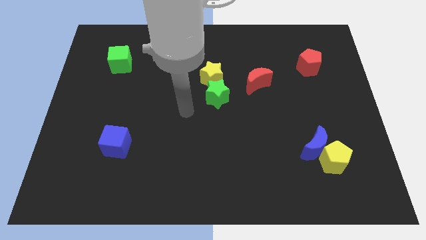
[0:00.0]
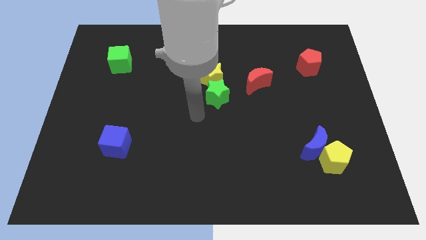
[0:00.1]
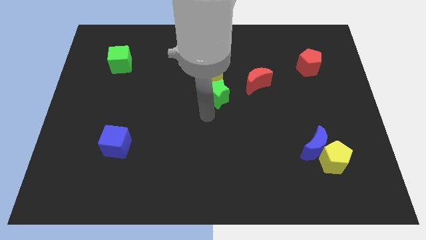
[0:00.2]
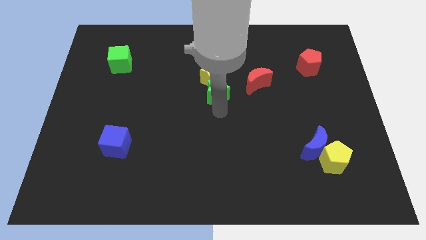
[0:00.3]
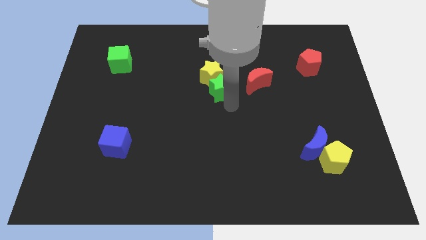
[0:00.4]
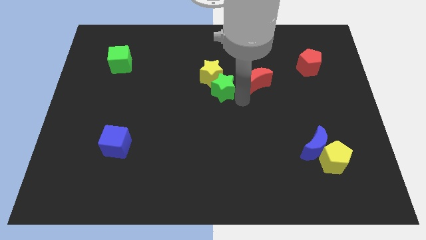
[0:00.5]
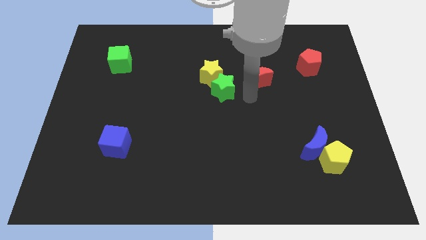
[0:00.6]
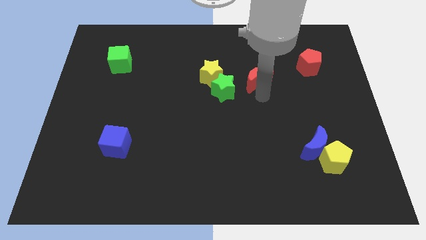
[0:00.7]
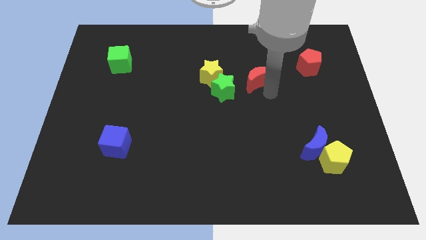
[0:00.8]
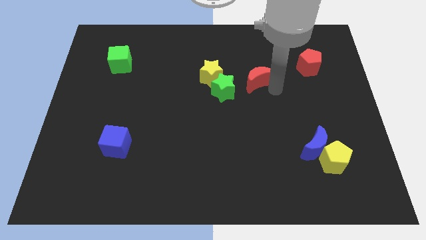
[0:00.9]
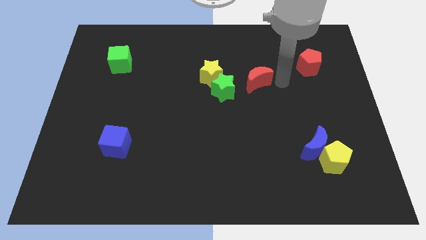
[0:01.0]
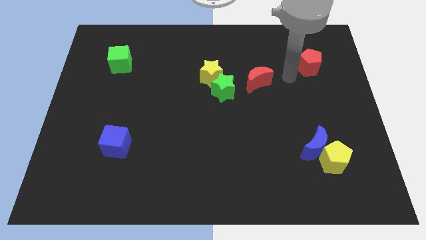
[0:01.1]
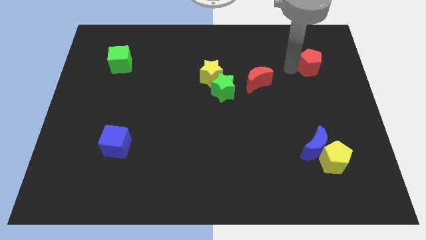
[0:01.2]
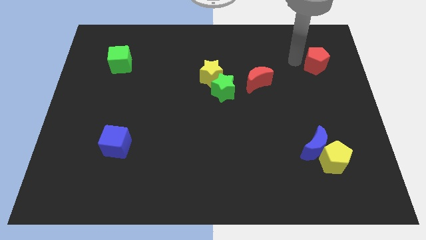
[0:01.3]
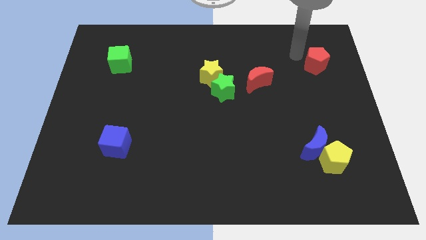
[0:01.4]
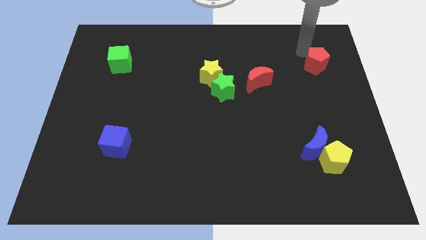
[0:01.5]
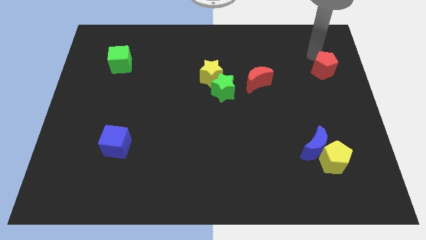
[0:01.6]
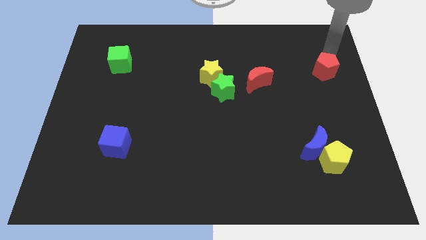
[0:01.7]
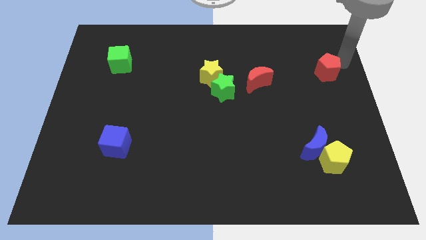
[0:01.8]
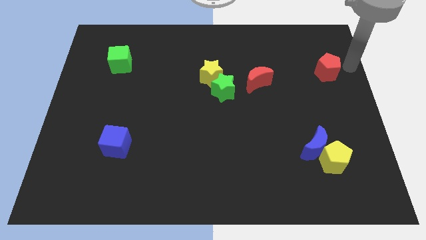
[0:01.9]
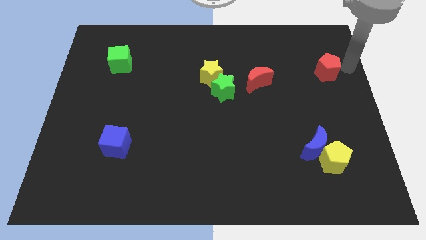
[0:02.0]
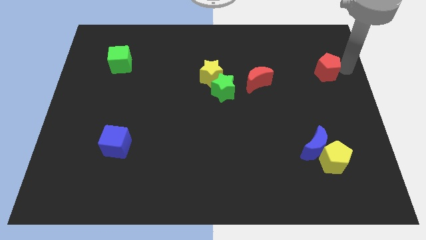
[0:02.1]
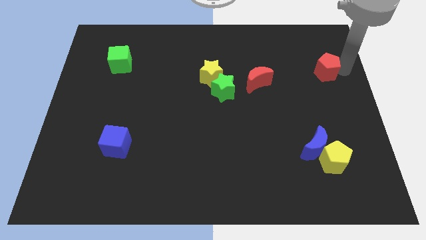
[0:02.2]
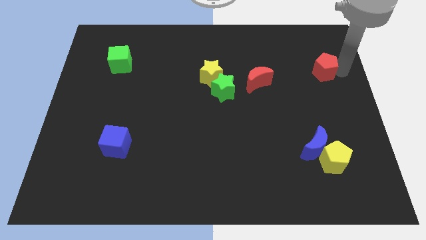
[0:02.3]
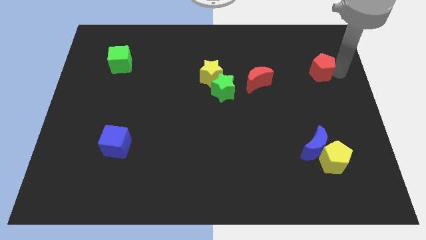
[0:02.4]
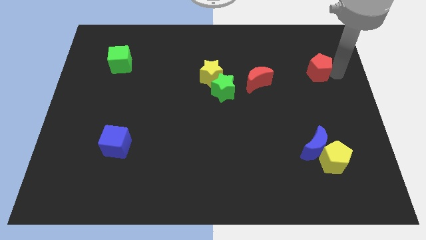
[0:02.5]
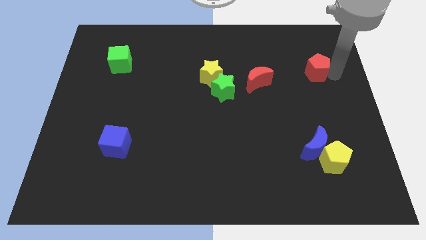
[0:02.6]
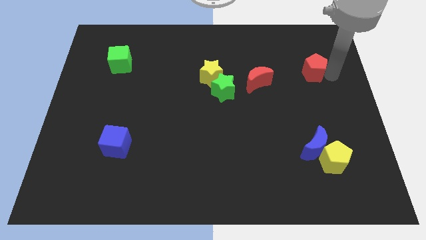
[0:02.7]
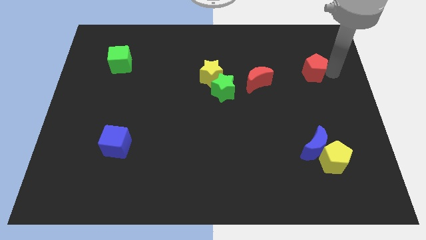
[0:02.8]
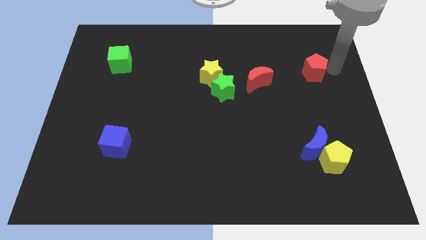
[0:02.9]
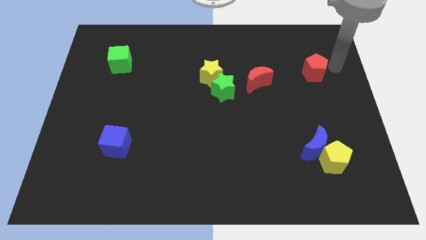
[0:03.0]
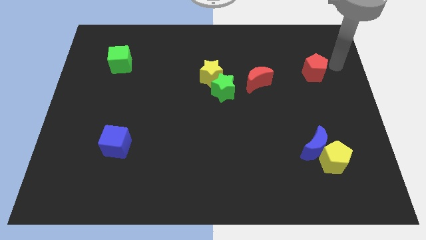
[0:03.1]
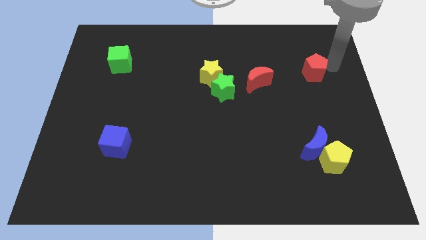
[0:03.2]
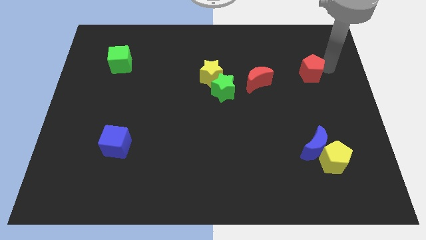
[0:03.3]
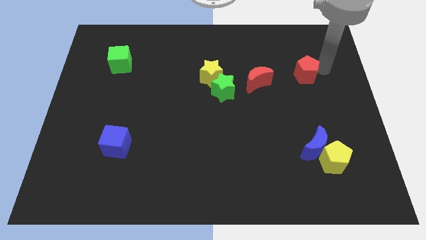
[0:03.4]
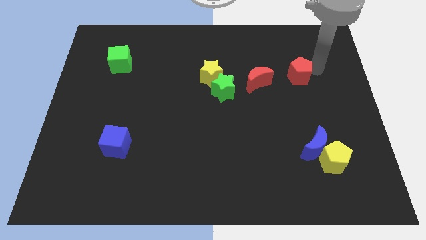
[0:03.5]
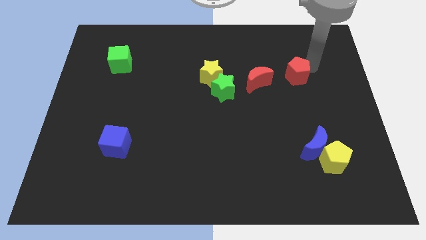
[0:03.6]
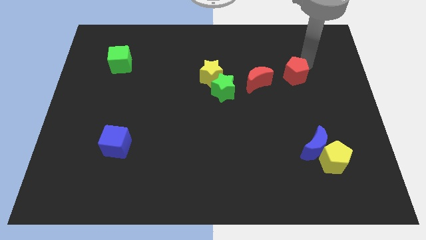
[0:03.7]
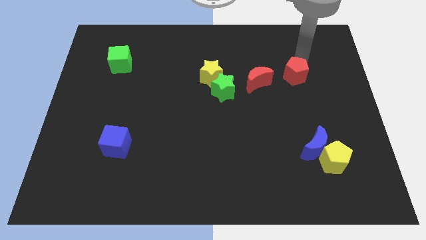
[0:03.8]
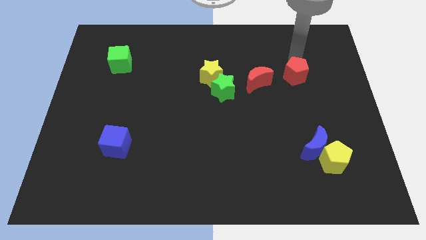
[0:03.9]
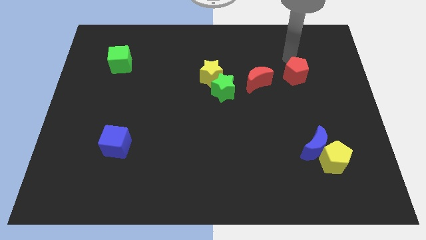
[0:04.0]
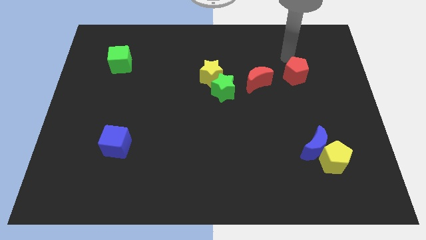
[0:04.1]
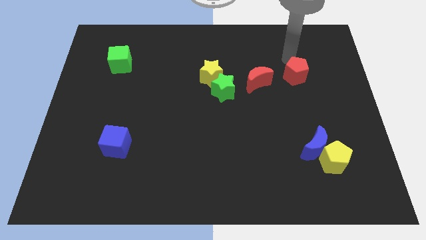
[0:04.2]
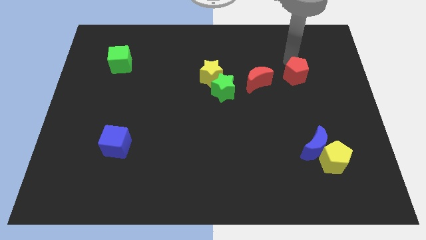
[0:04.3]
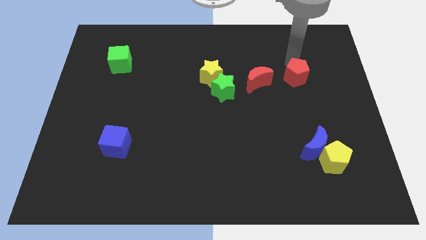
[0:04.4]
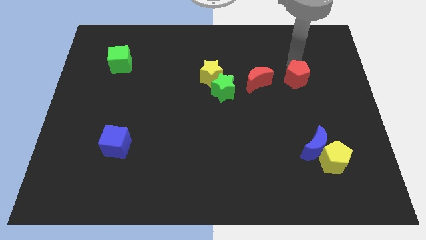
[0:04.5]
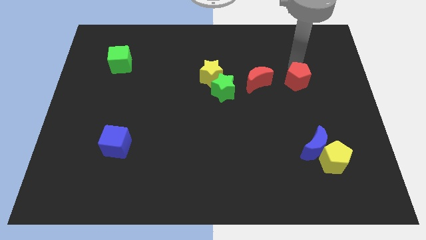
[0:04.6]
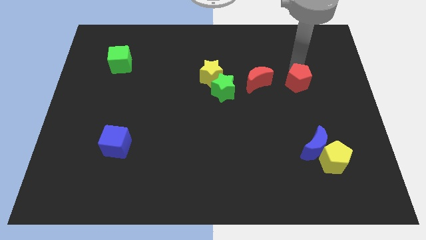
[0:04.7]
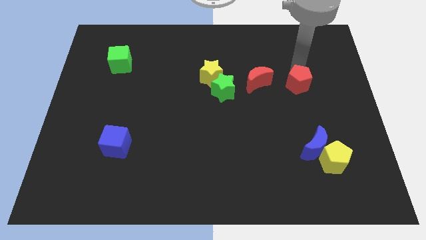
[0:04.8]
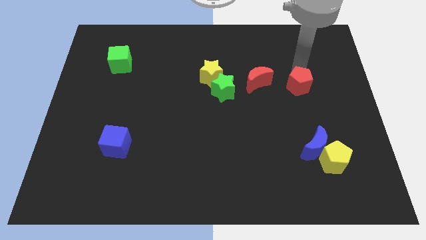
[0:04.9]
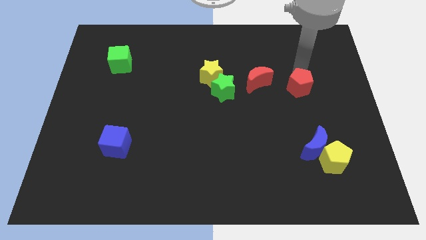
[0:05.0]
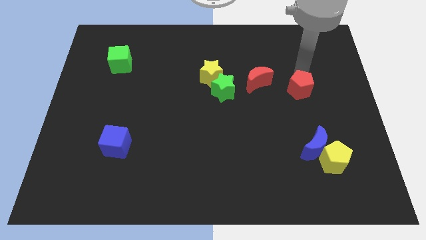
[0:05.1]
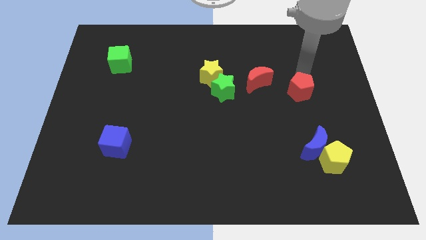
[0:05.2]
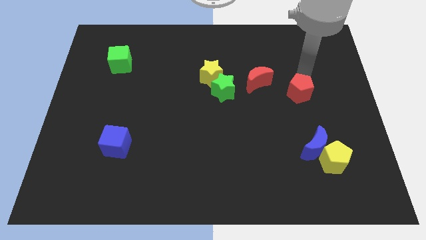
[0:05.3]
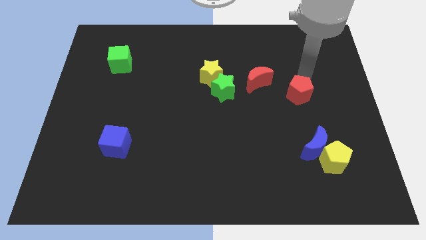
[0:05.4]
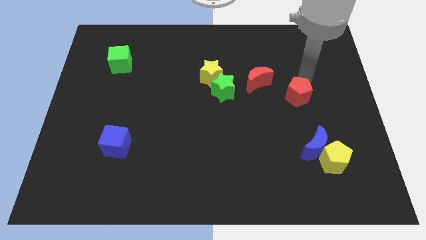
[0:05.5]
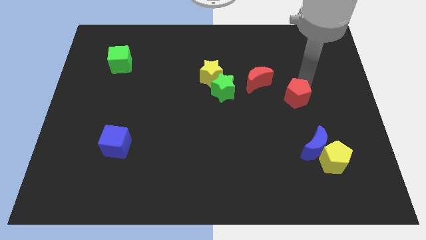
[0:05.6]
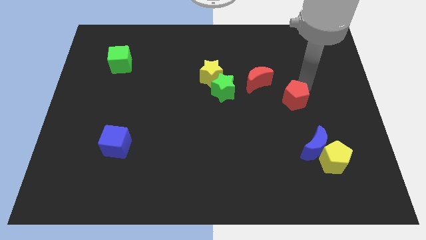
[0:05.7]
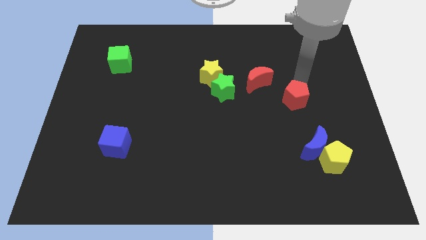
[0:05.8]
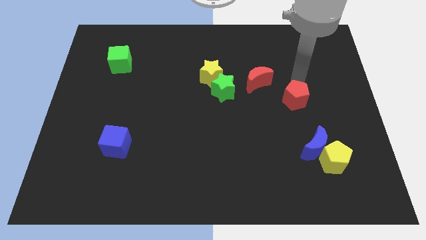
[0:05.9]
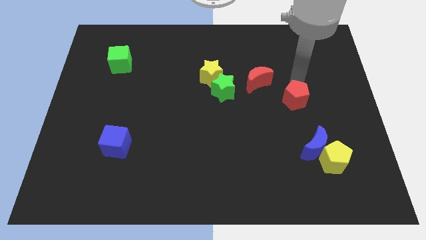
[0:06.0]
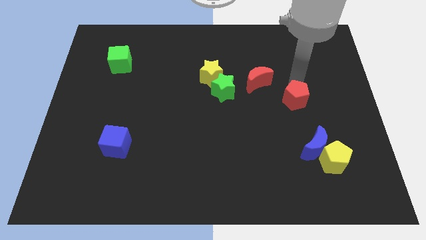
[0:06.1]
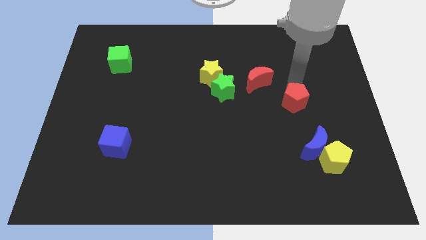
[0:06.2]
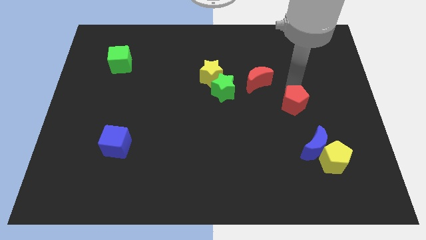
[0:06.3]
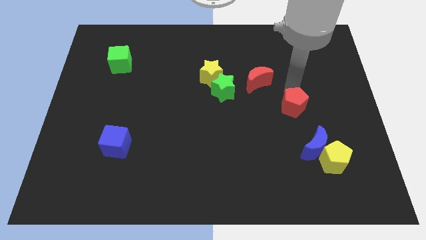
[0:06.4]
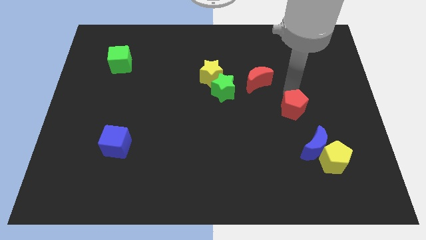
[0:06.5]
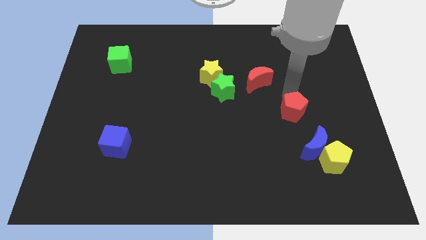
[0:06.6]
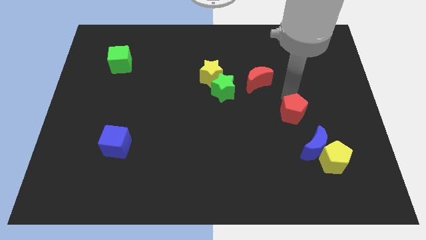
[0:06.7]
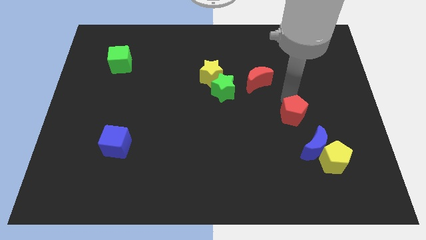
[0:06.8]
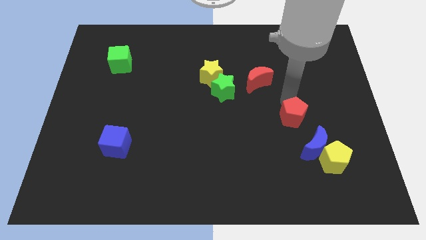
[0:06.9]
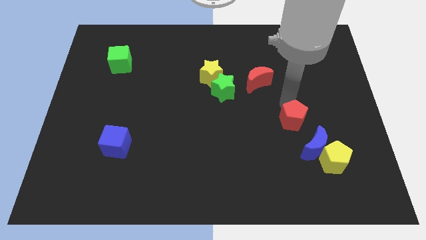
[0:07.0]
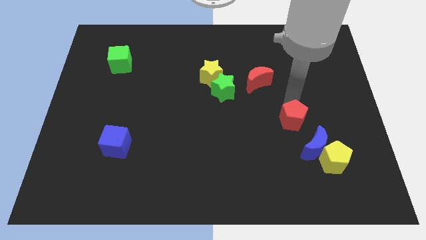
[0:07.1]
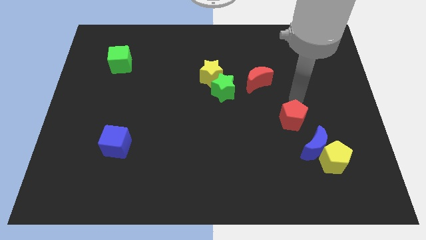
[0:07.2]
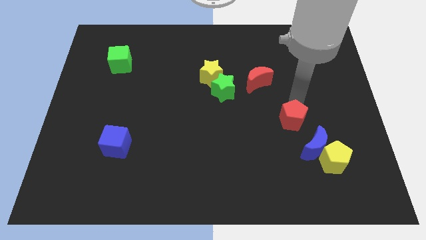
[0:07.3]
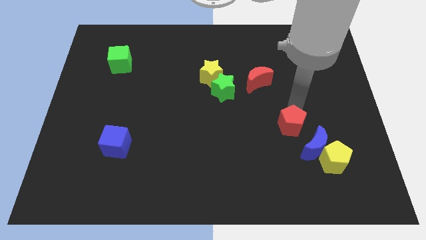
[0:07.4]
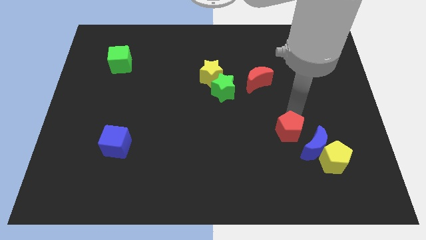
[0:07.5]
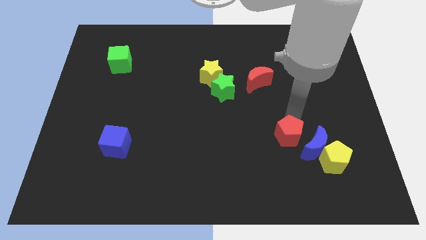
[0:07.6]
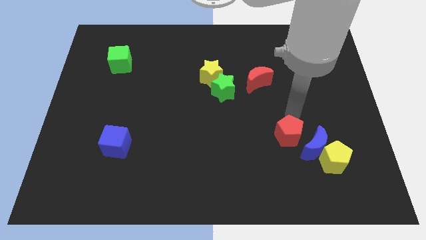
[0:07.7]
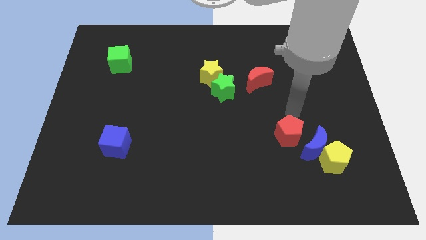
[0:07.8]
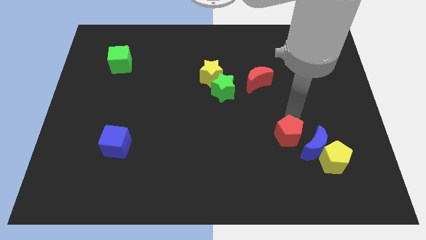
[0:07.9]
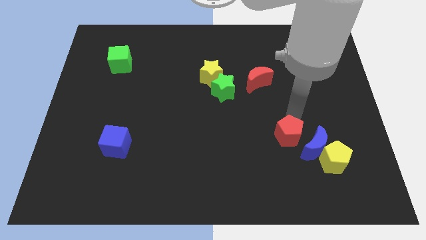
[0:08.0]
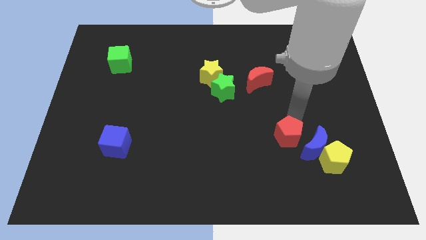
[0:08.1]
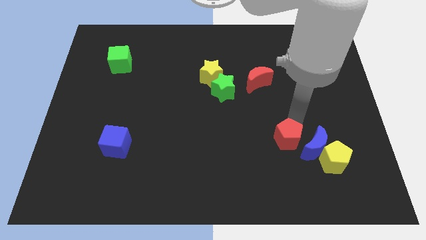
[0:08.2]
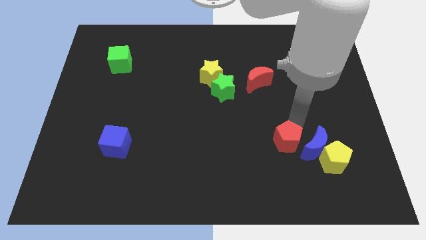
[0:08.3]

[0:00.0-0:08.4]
slide the red pentagon to the left side of the yellow pentagon
